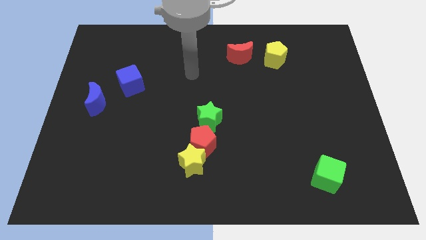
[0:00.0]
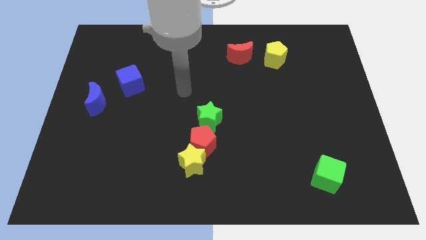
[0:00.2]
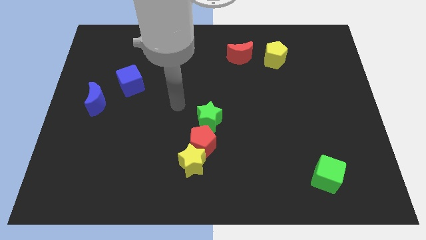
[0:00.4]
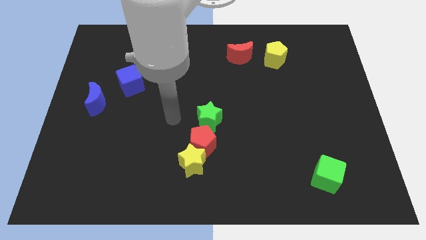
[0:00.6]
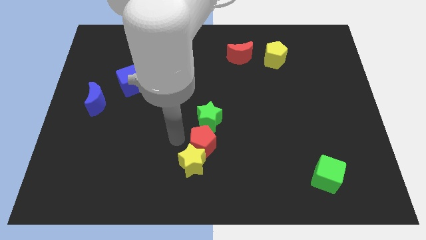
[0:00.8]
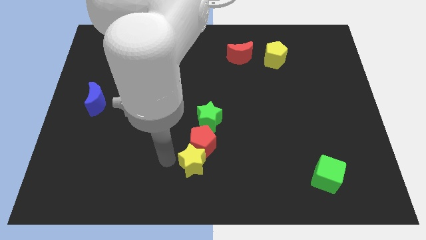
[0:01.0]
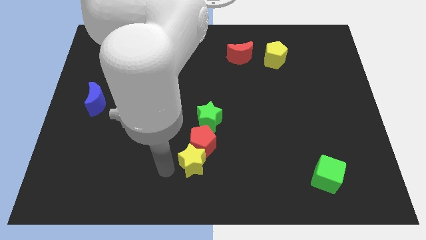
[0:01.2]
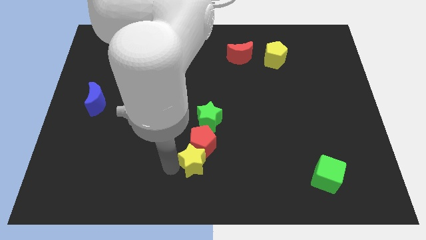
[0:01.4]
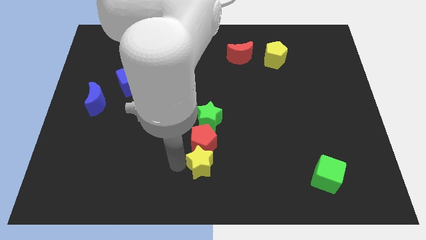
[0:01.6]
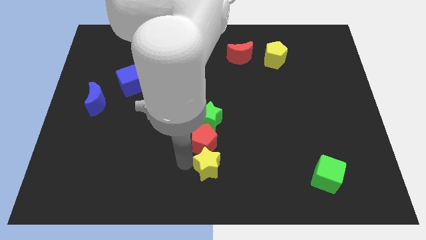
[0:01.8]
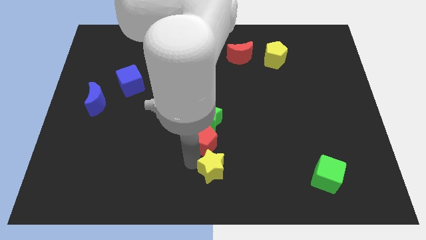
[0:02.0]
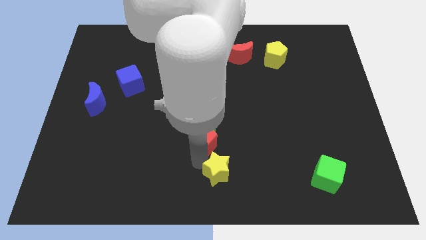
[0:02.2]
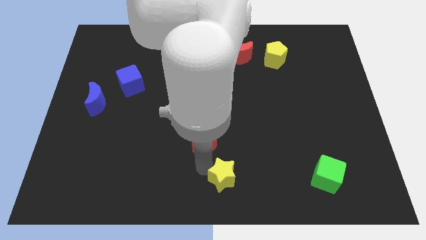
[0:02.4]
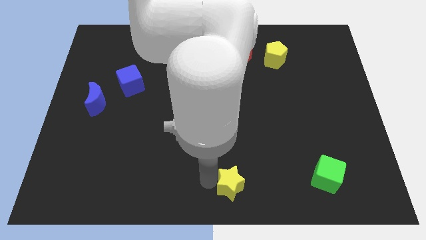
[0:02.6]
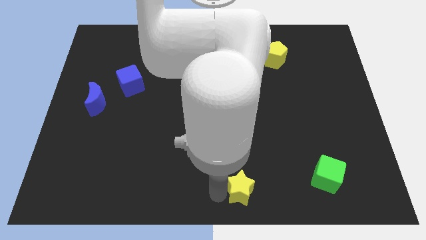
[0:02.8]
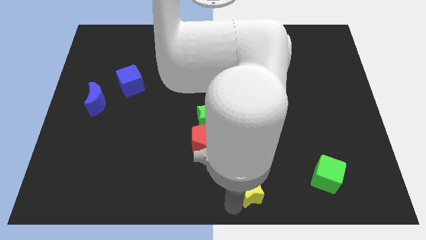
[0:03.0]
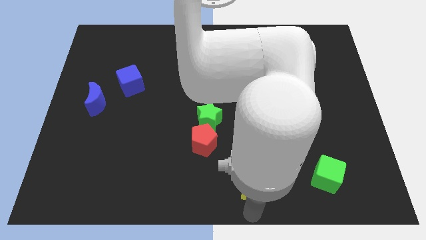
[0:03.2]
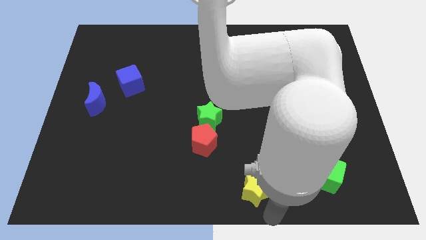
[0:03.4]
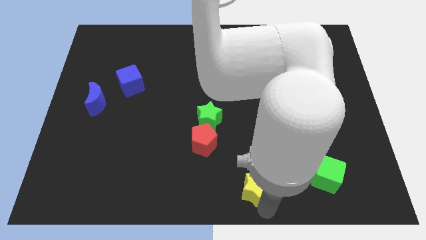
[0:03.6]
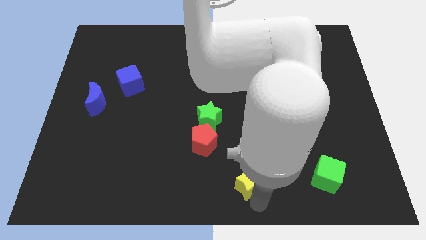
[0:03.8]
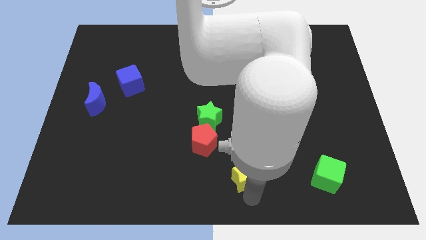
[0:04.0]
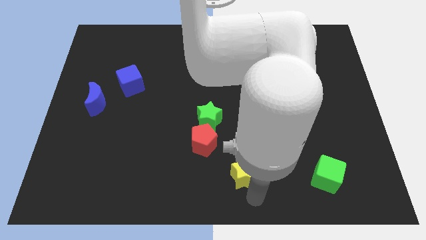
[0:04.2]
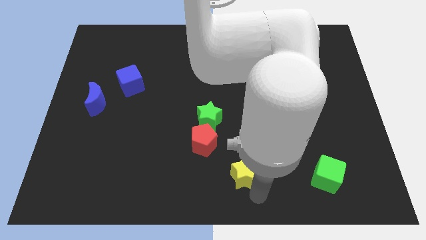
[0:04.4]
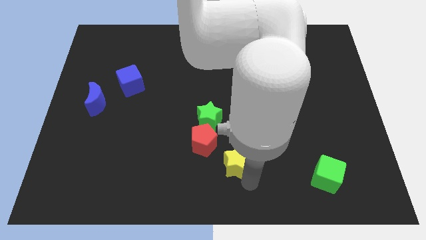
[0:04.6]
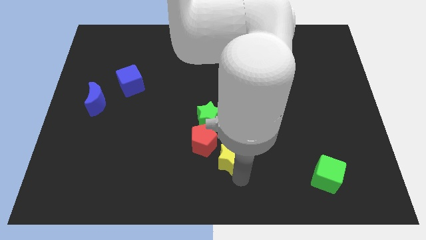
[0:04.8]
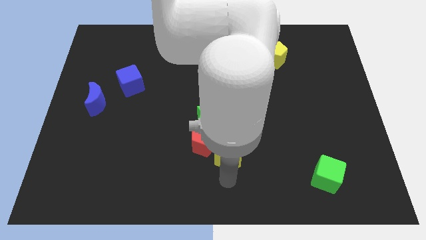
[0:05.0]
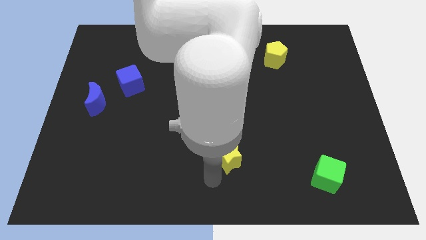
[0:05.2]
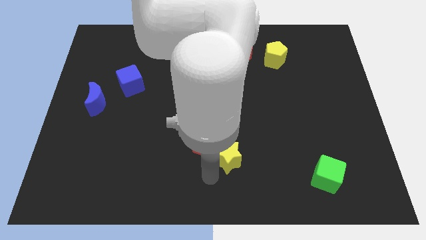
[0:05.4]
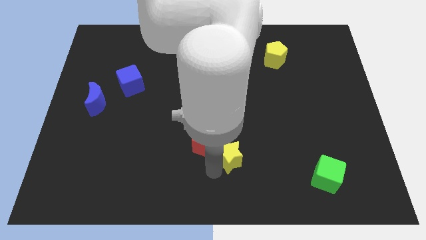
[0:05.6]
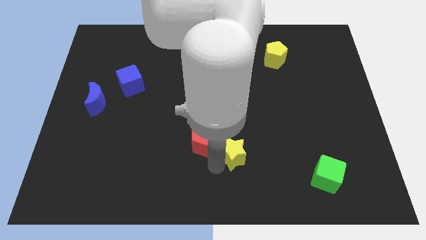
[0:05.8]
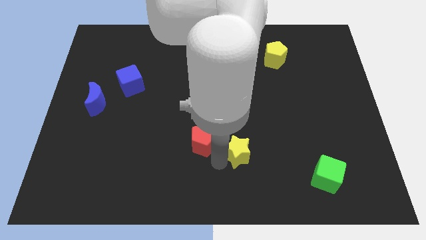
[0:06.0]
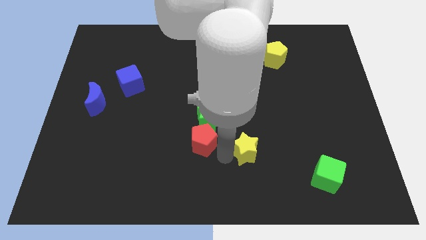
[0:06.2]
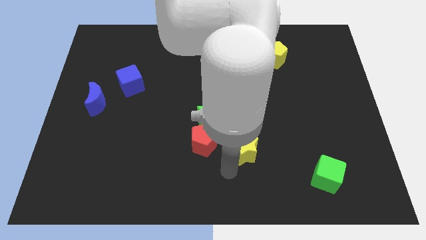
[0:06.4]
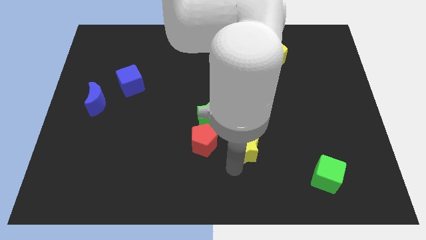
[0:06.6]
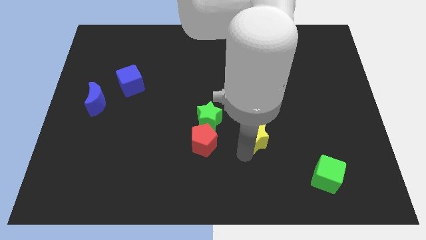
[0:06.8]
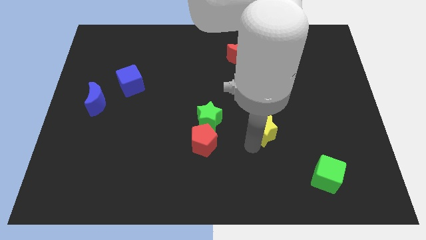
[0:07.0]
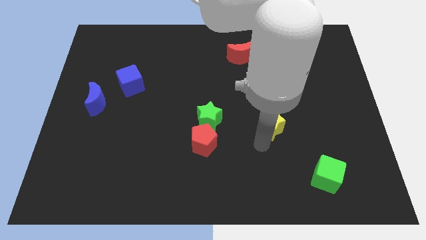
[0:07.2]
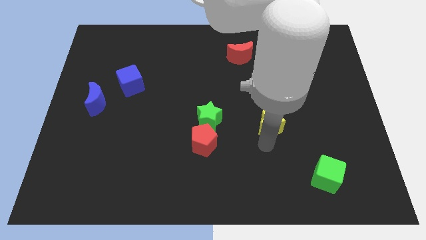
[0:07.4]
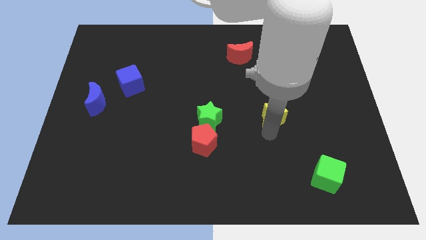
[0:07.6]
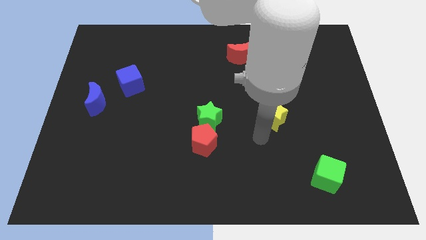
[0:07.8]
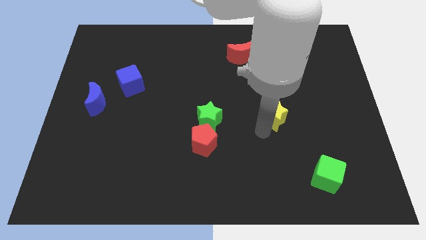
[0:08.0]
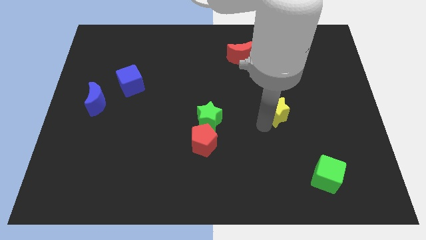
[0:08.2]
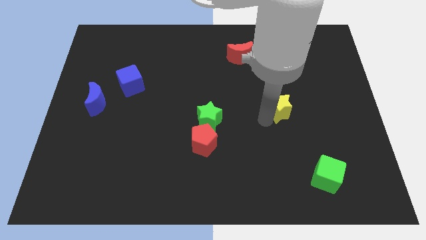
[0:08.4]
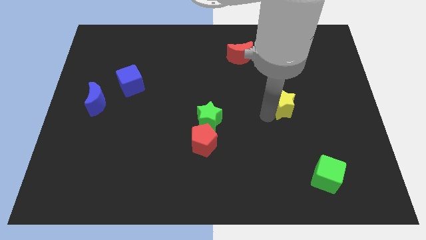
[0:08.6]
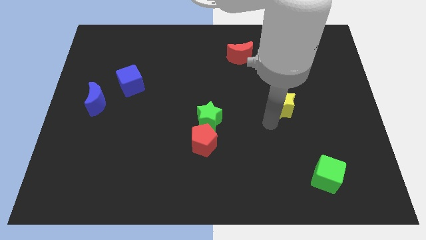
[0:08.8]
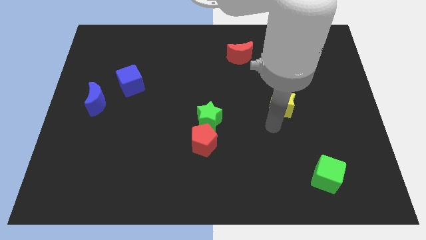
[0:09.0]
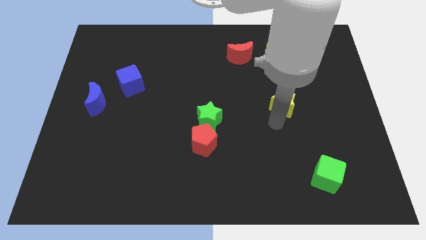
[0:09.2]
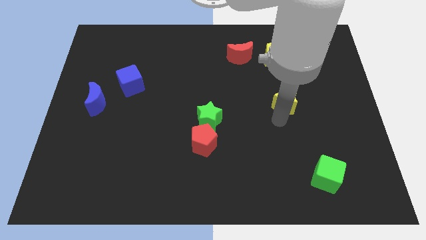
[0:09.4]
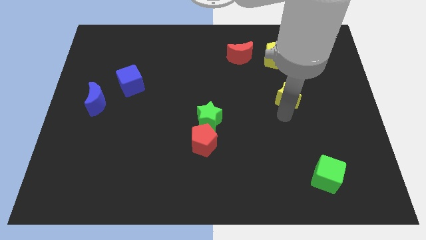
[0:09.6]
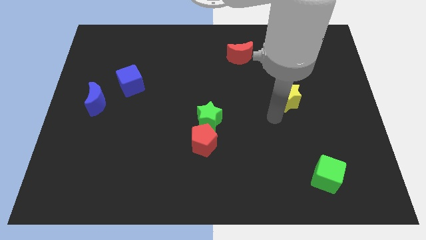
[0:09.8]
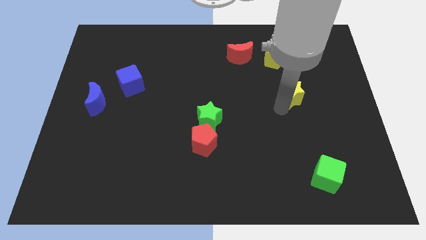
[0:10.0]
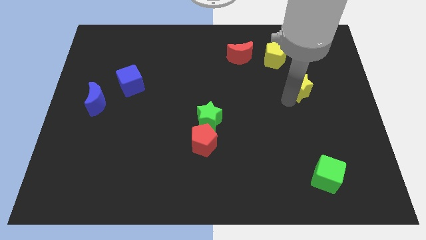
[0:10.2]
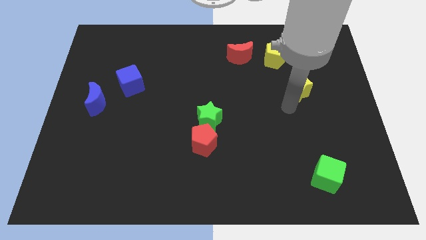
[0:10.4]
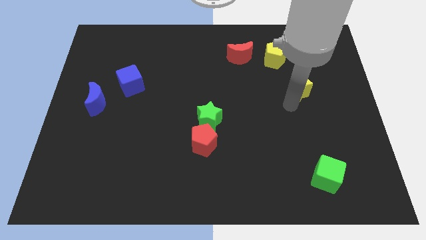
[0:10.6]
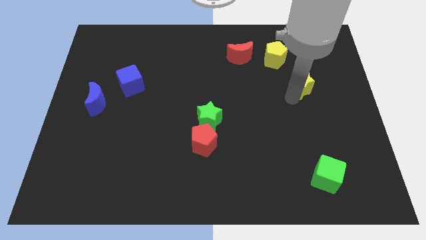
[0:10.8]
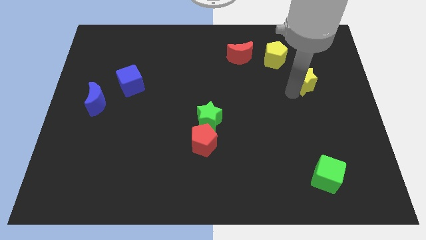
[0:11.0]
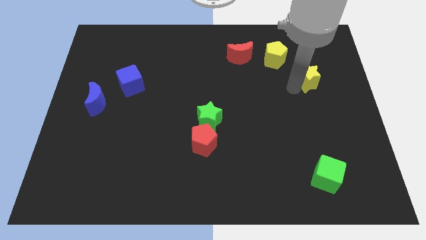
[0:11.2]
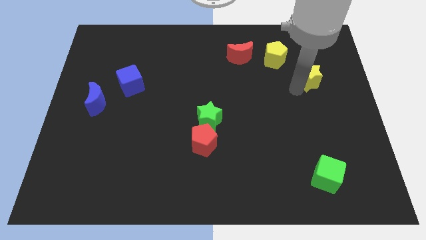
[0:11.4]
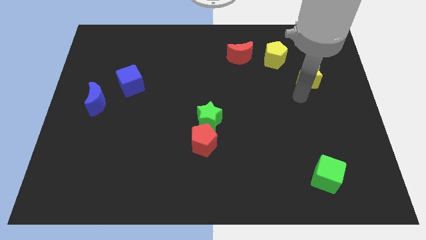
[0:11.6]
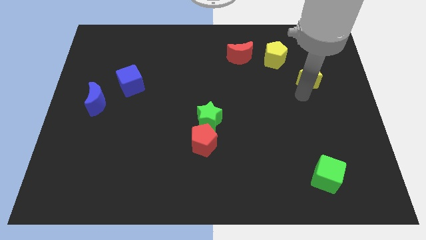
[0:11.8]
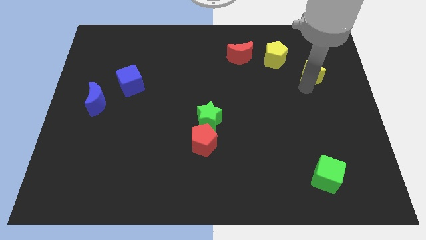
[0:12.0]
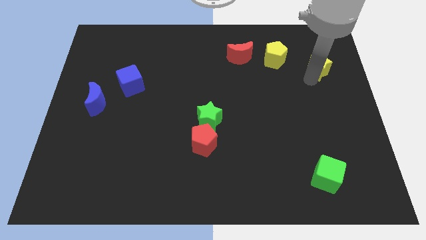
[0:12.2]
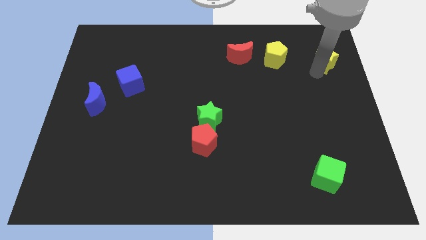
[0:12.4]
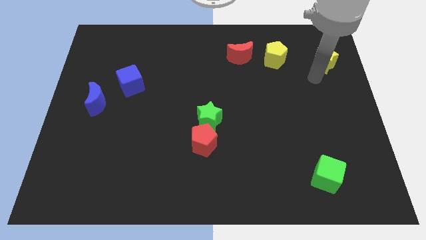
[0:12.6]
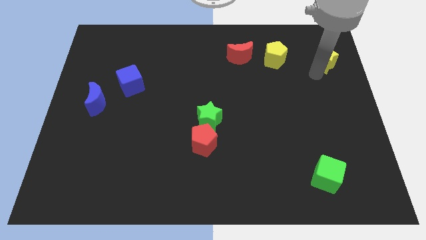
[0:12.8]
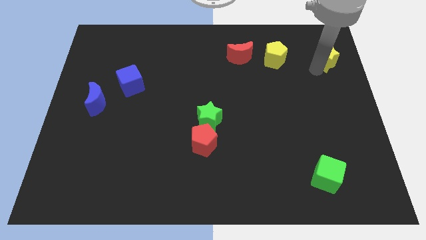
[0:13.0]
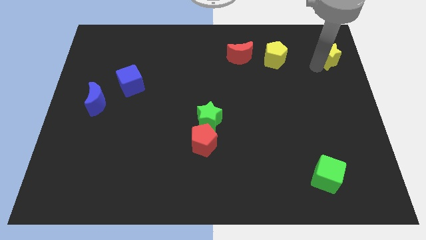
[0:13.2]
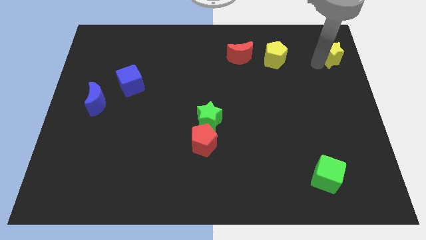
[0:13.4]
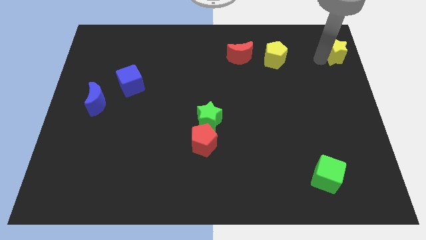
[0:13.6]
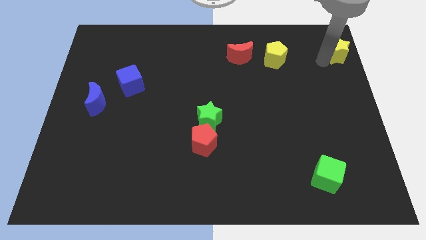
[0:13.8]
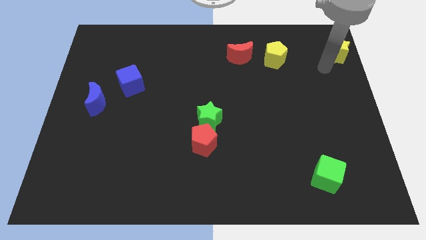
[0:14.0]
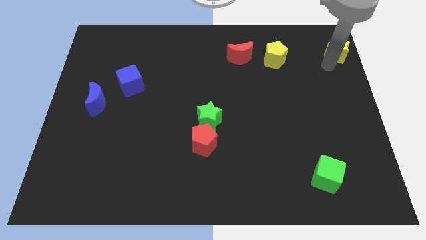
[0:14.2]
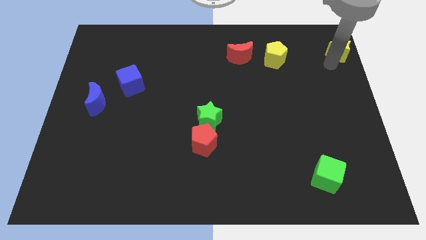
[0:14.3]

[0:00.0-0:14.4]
move the yellow star to the top right of the board
